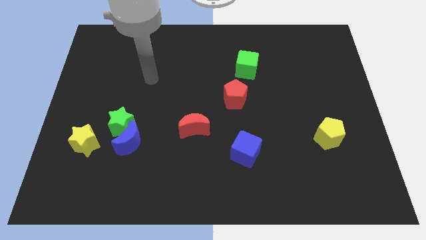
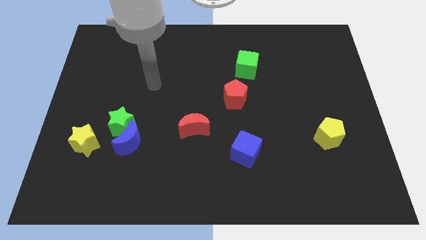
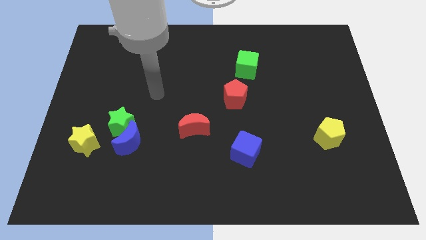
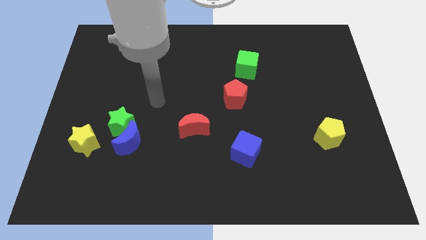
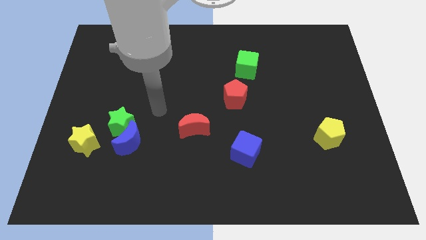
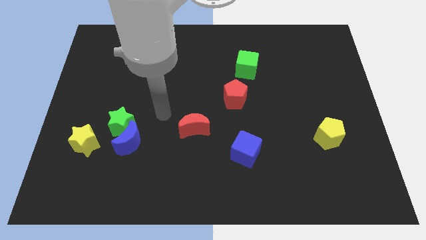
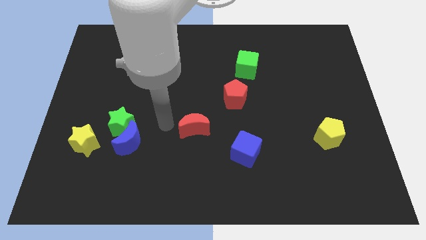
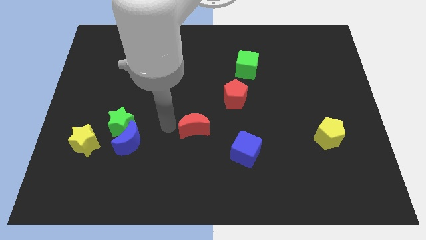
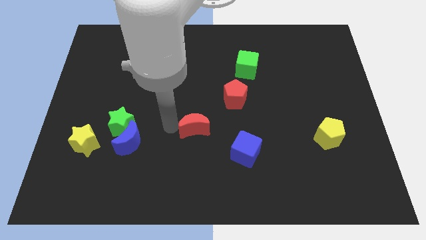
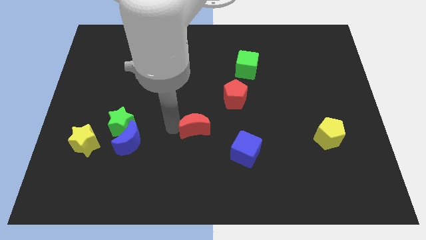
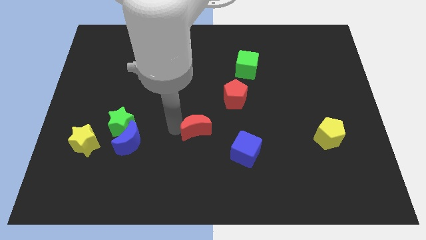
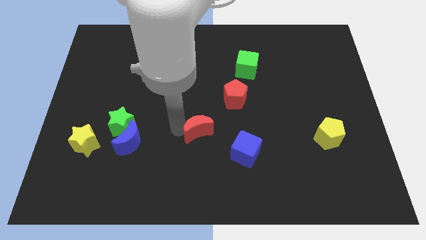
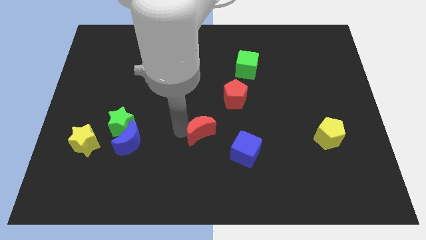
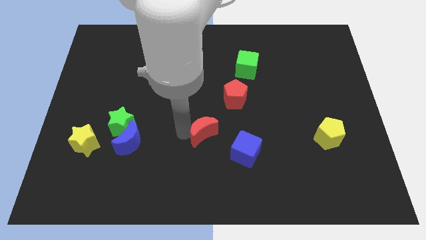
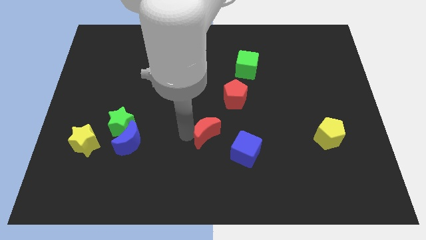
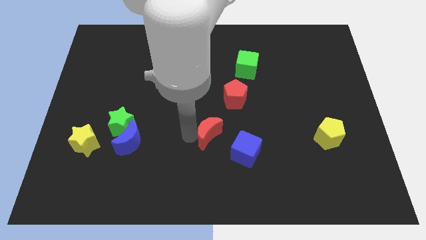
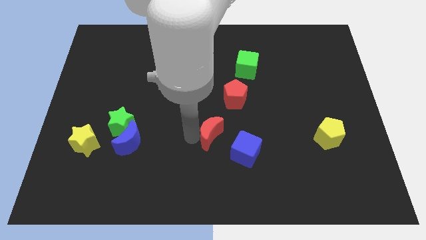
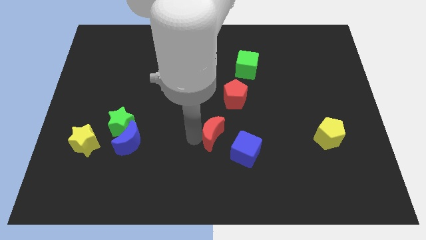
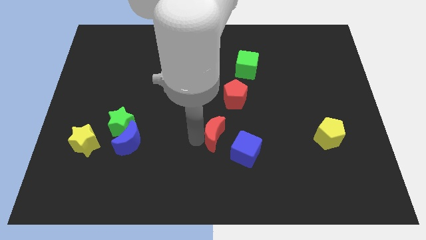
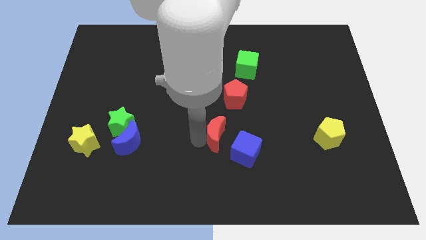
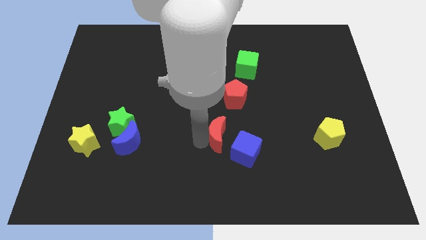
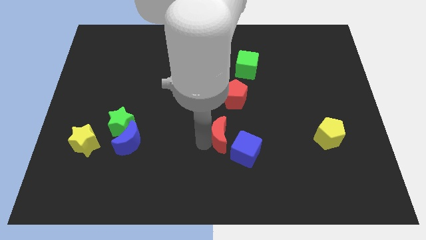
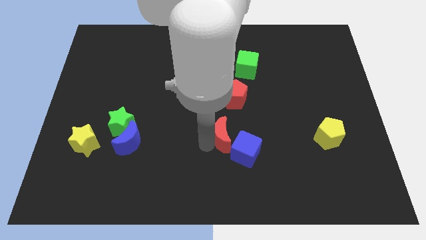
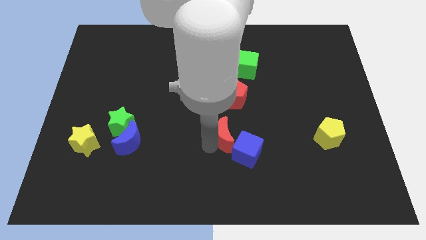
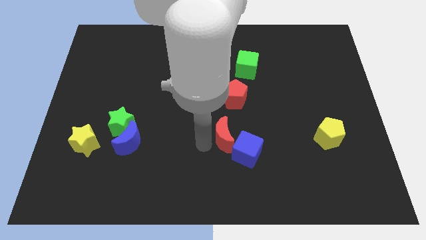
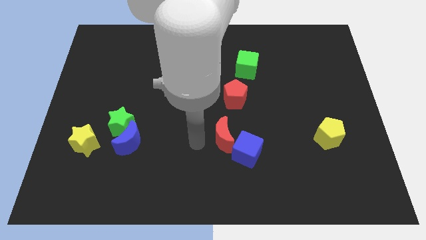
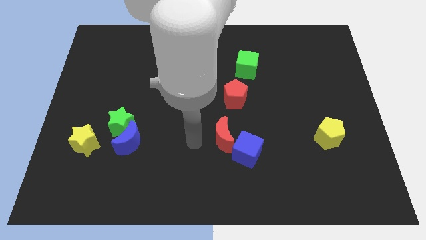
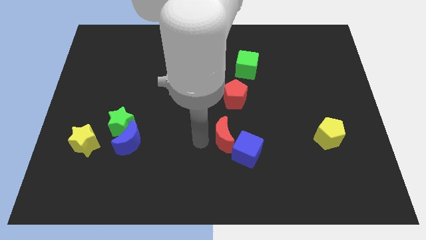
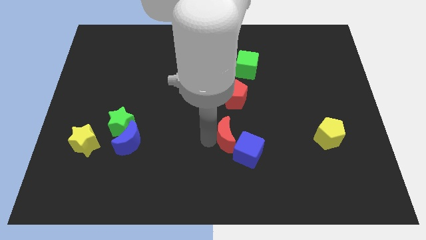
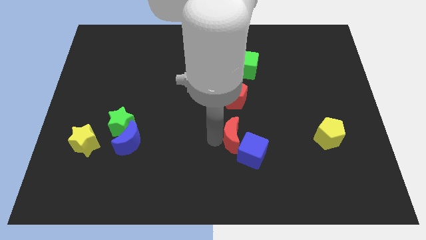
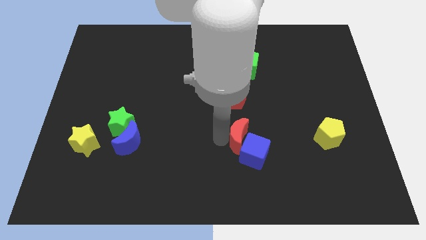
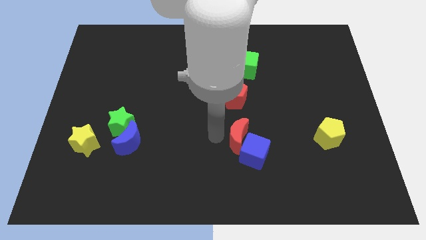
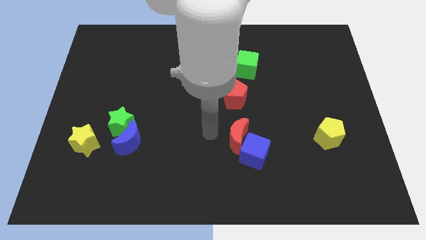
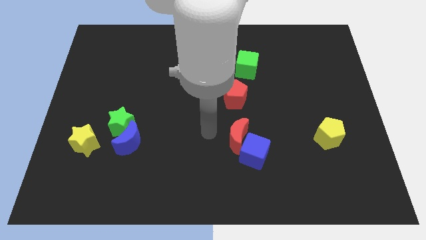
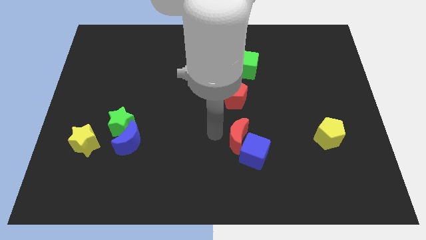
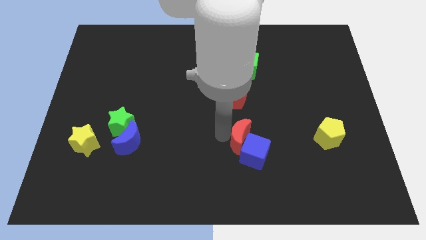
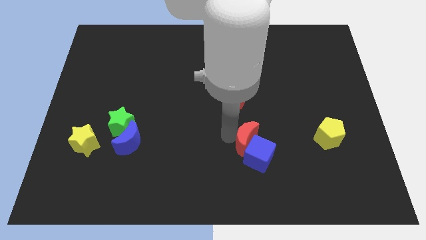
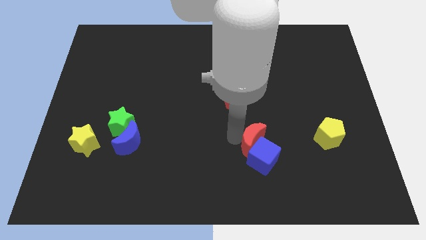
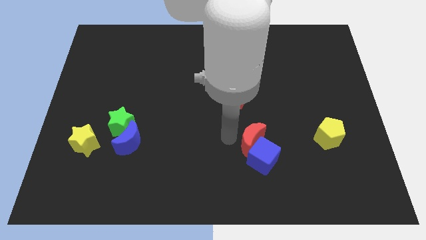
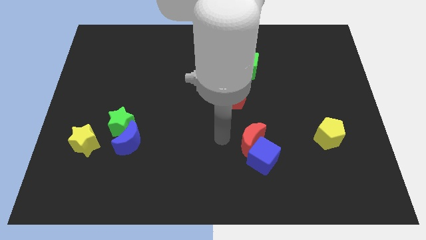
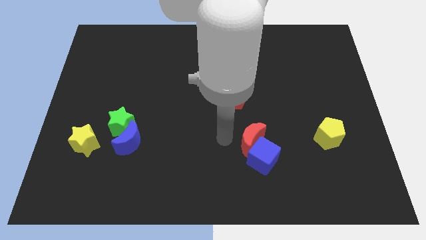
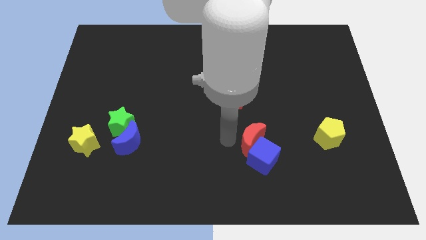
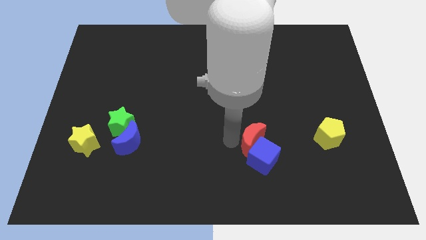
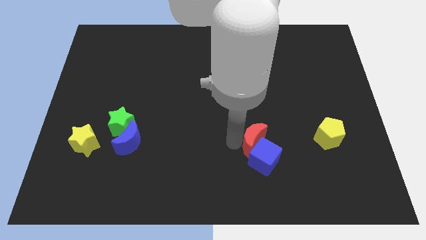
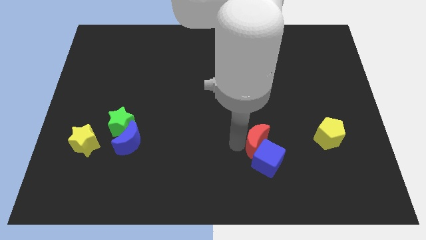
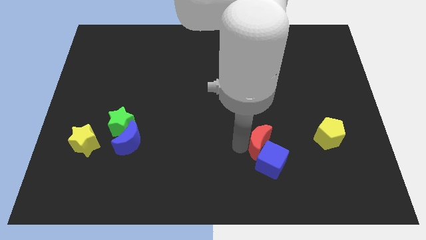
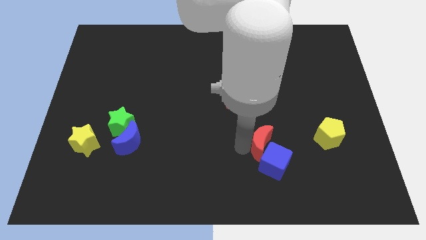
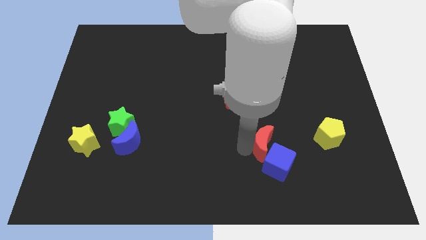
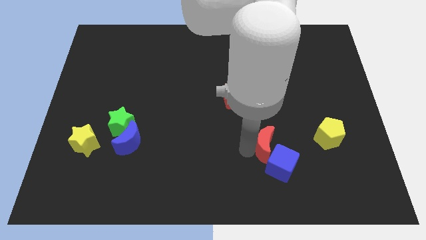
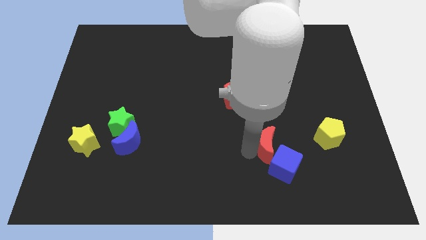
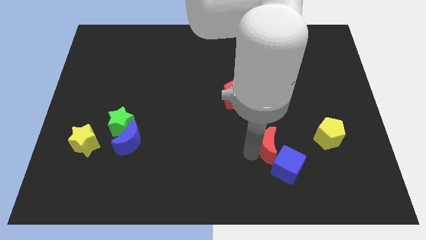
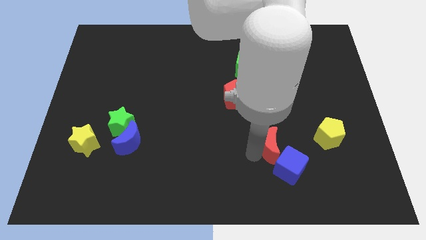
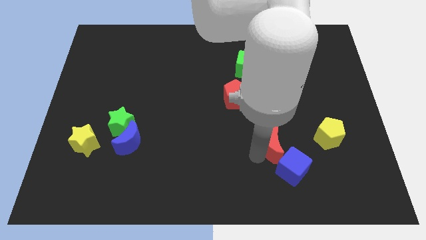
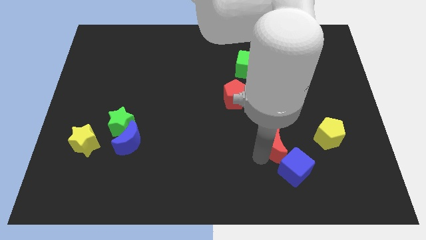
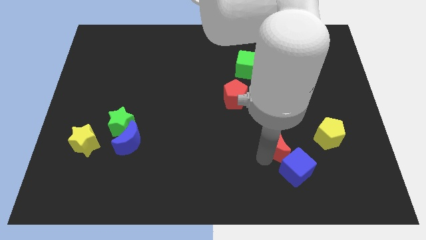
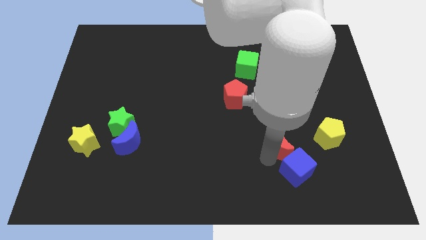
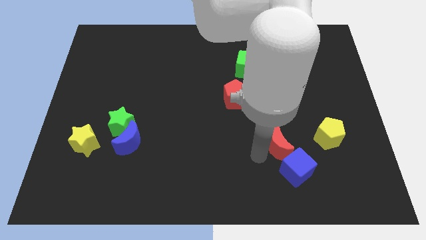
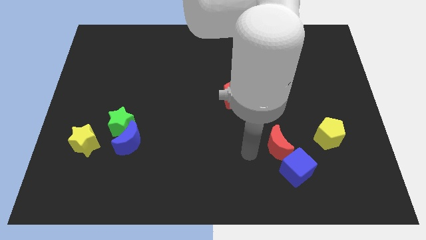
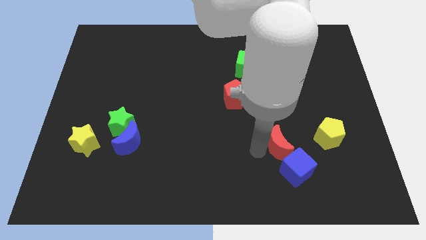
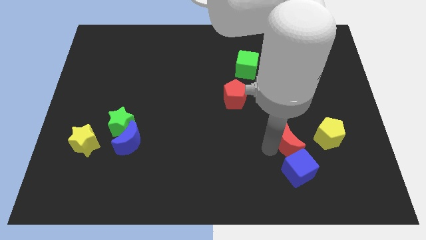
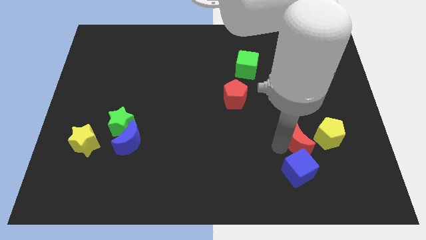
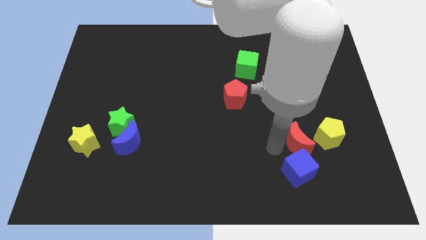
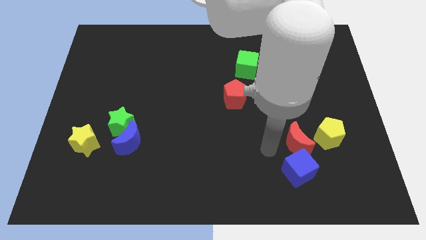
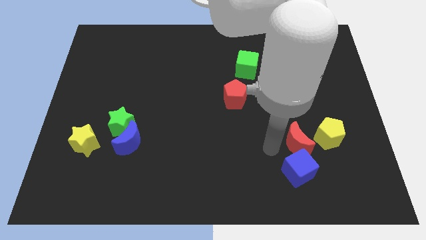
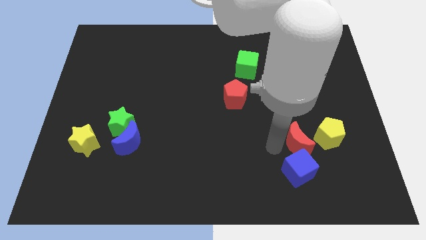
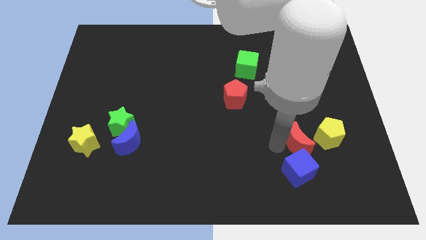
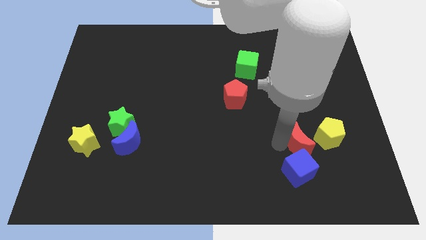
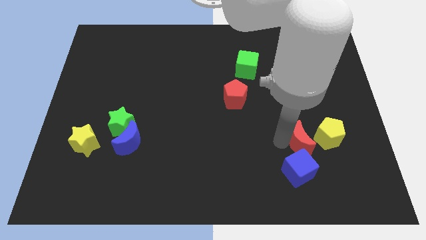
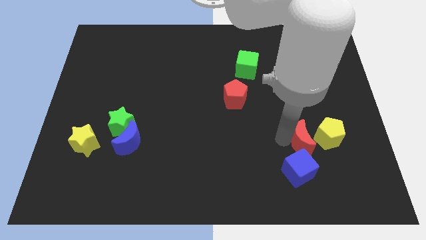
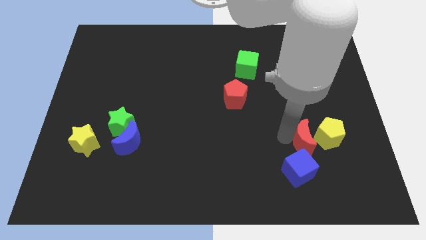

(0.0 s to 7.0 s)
slide the red moon to the yellow pentagon

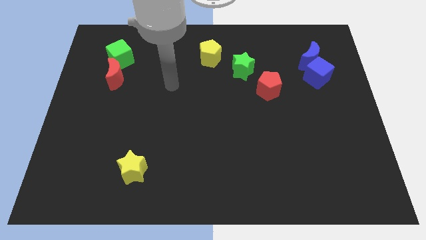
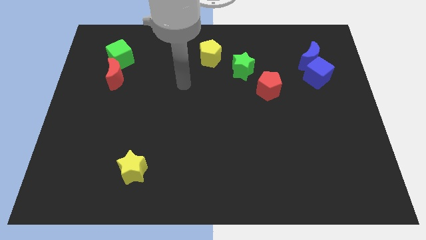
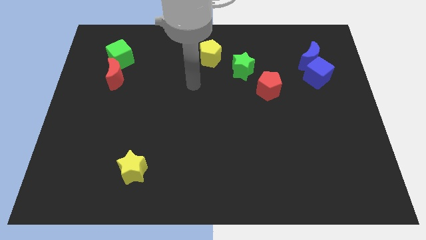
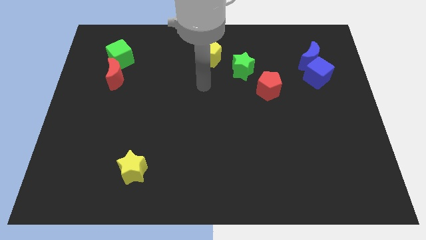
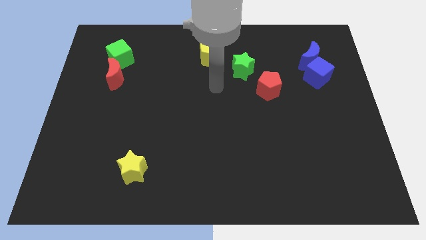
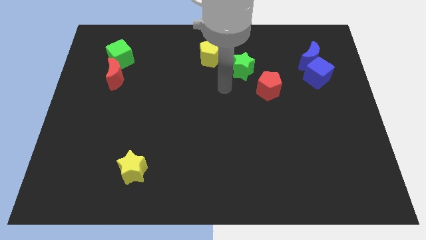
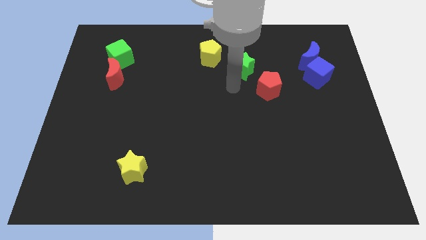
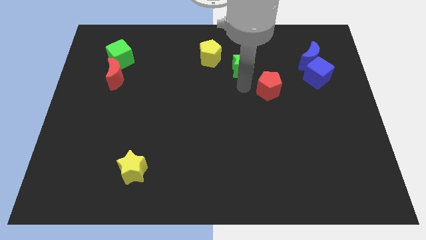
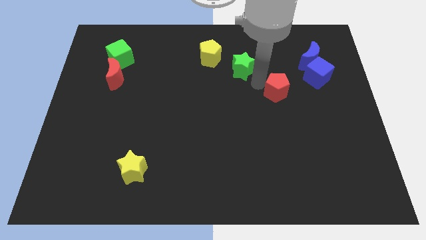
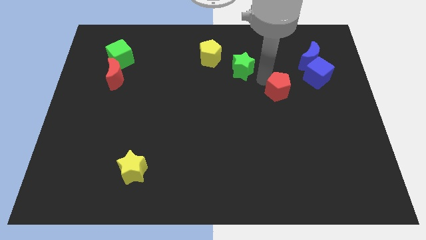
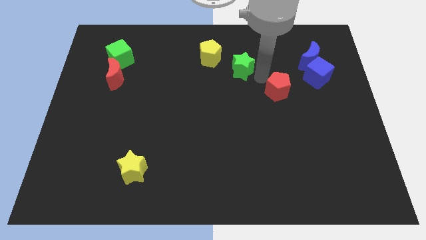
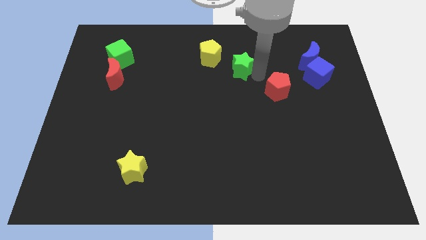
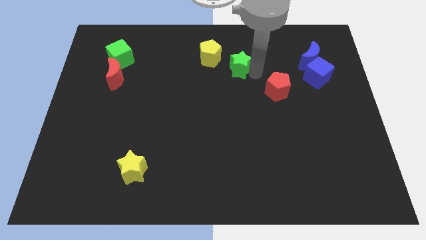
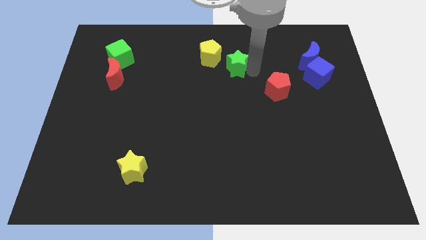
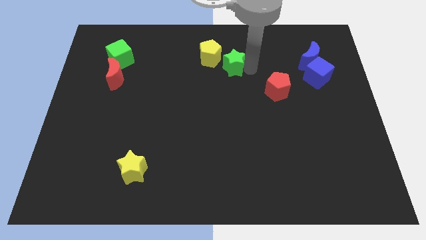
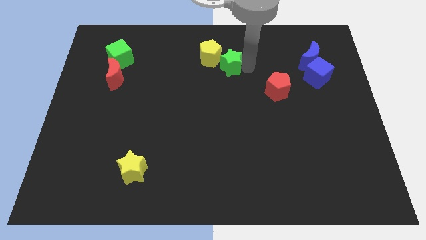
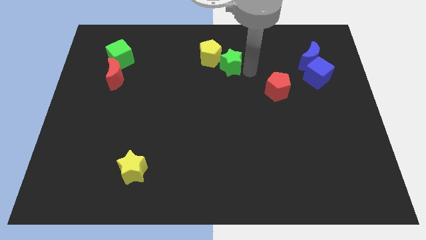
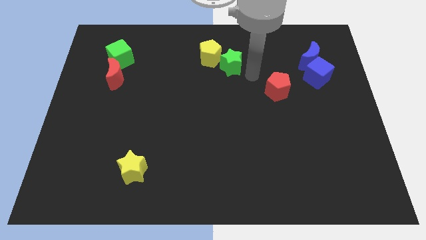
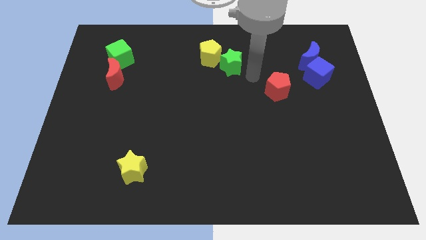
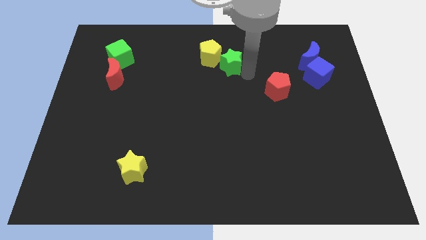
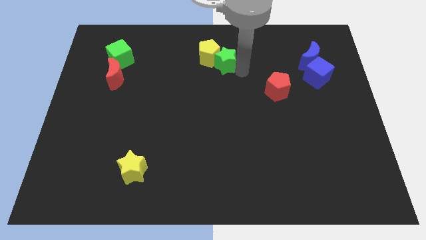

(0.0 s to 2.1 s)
push the green star next to the yellow pentagon
